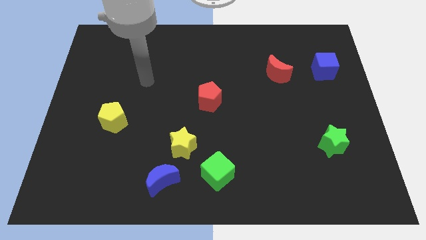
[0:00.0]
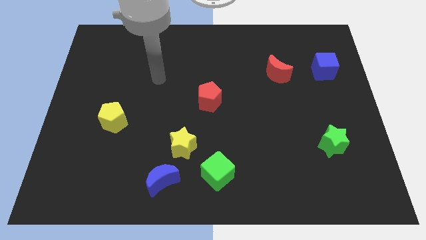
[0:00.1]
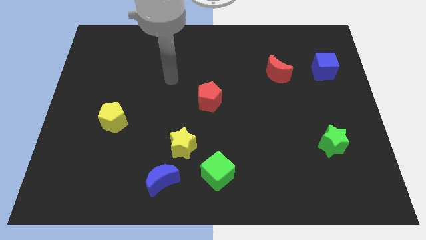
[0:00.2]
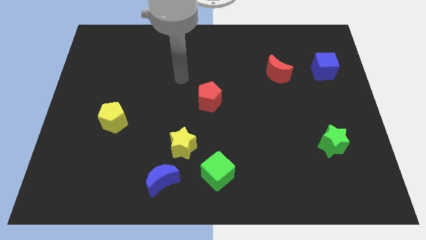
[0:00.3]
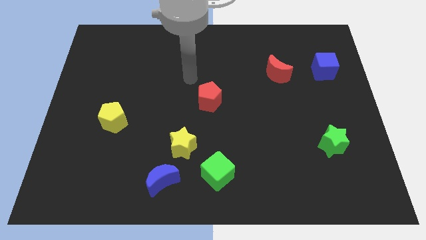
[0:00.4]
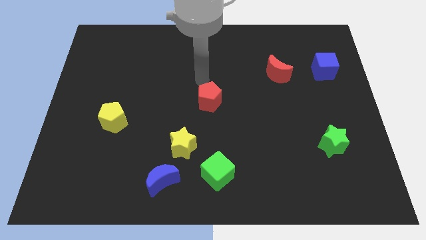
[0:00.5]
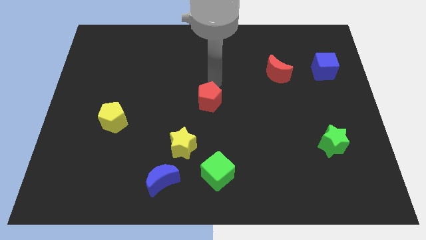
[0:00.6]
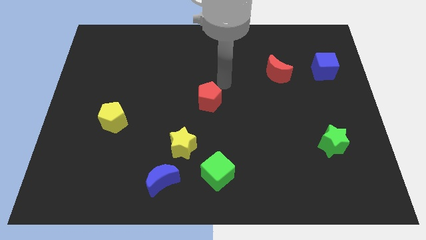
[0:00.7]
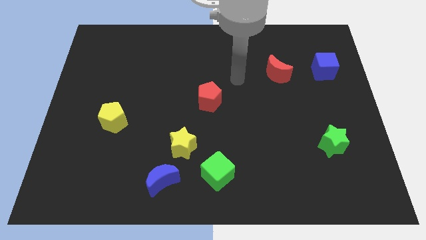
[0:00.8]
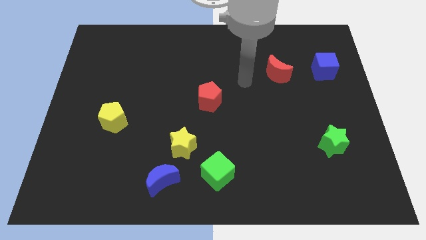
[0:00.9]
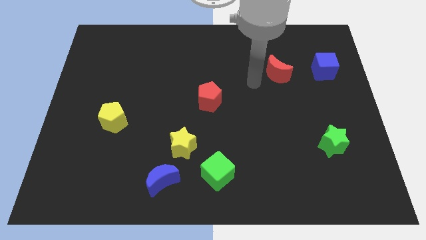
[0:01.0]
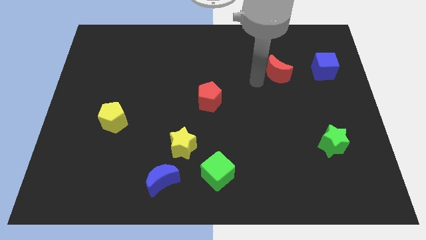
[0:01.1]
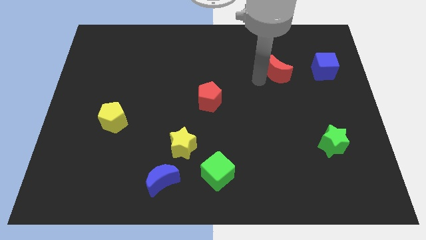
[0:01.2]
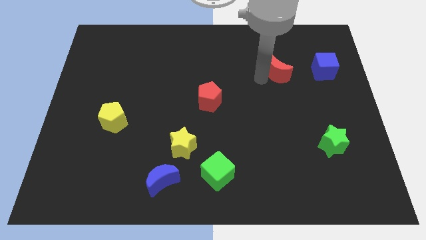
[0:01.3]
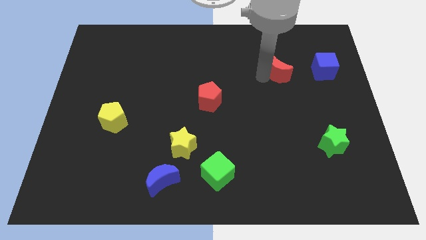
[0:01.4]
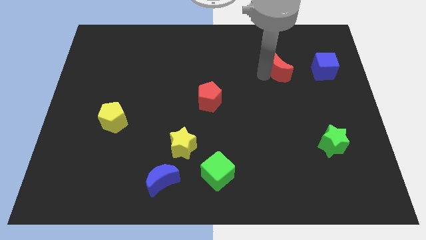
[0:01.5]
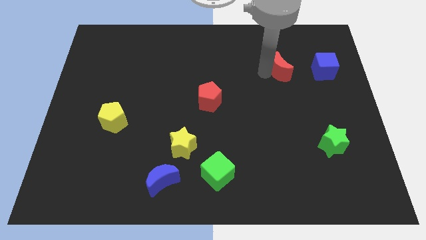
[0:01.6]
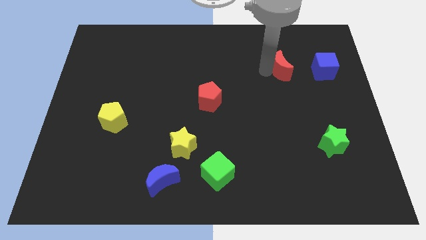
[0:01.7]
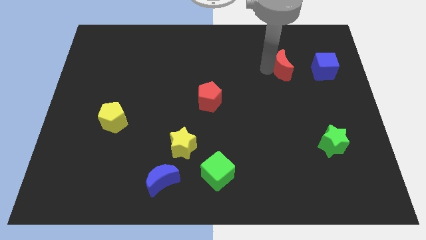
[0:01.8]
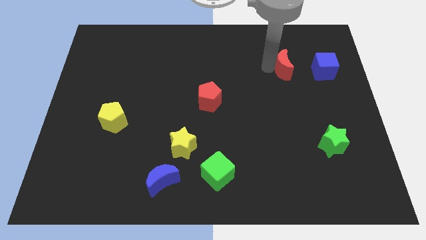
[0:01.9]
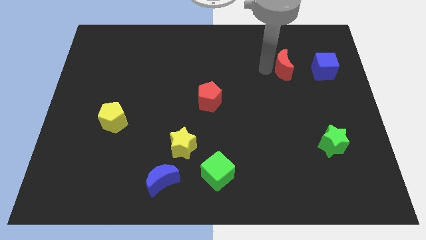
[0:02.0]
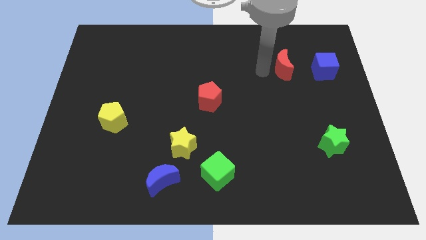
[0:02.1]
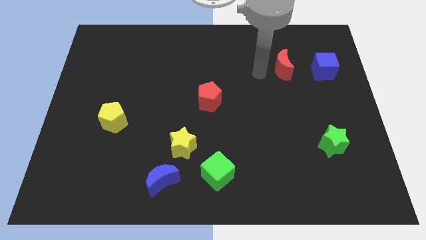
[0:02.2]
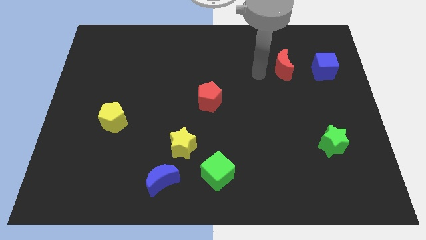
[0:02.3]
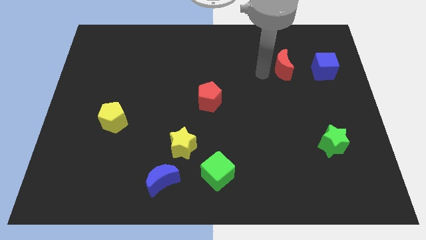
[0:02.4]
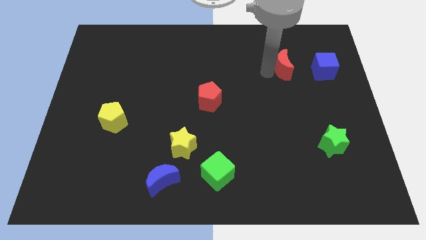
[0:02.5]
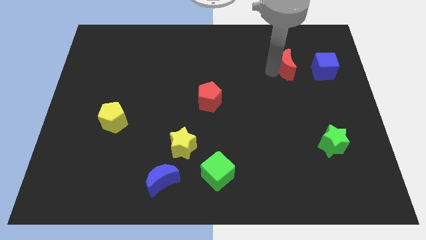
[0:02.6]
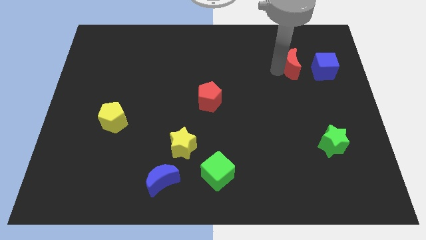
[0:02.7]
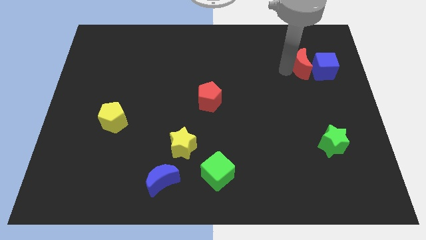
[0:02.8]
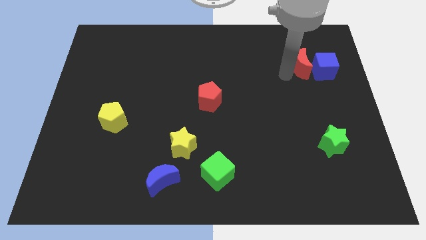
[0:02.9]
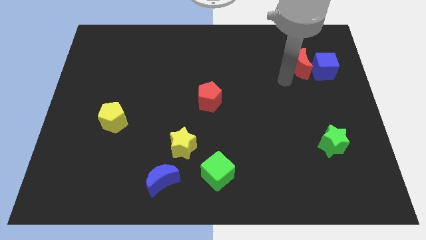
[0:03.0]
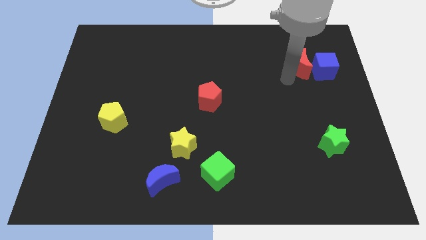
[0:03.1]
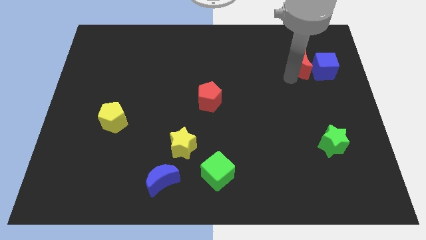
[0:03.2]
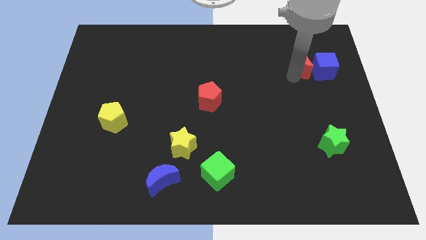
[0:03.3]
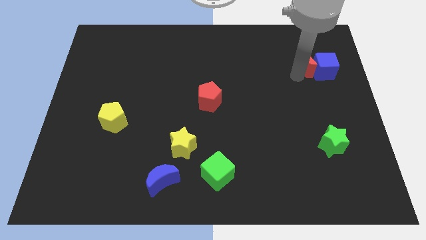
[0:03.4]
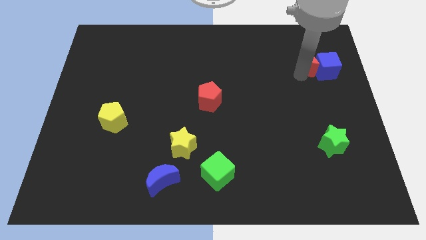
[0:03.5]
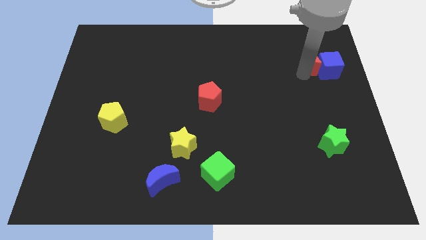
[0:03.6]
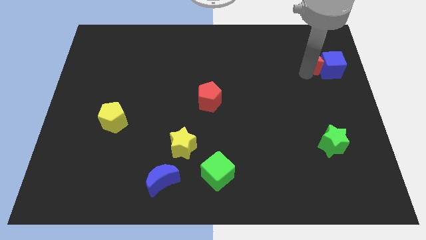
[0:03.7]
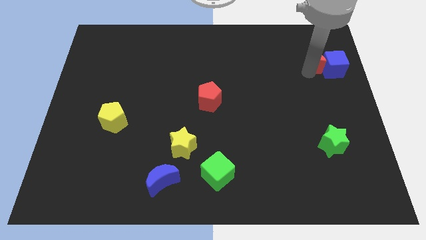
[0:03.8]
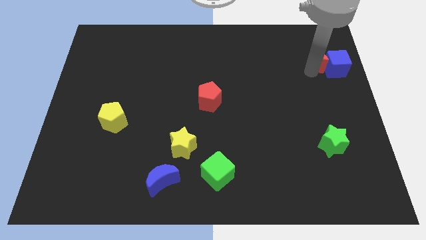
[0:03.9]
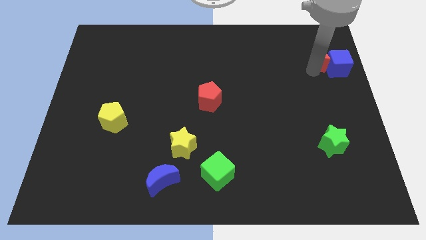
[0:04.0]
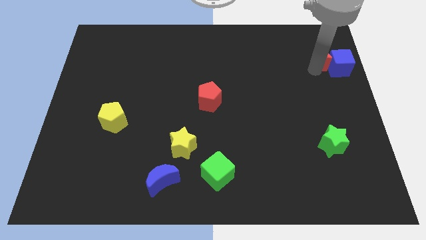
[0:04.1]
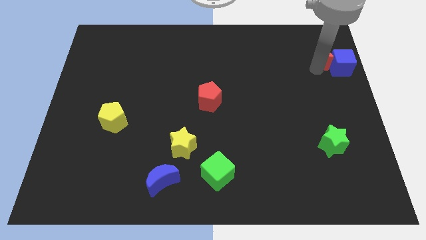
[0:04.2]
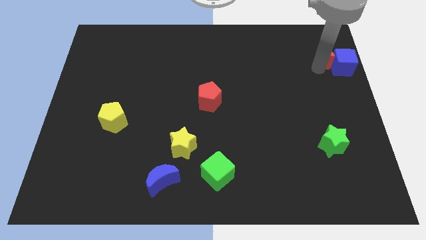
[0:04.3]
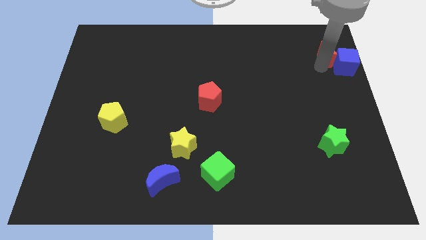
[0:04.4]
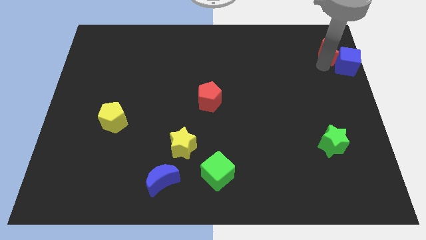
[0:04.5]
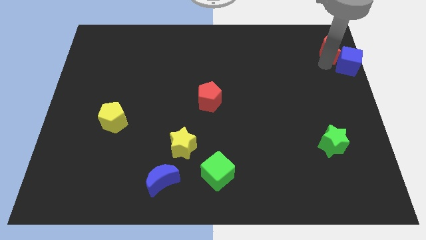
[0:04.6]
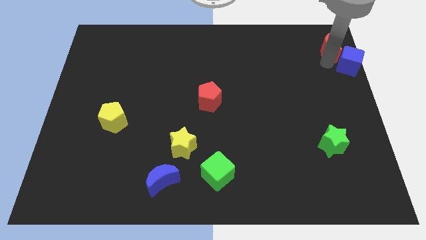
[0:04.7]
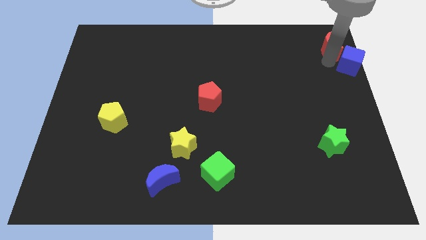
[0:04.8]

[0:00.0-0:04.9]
move the red moon to the top right corner

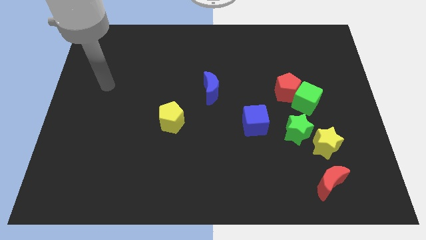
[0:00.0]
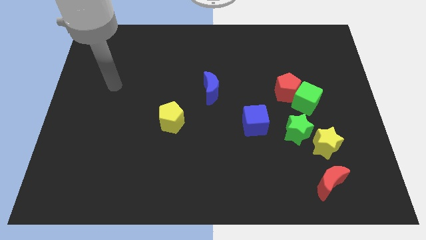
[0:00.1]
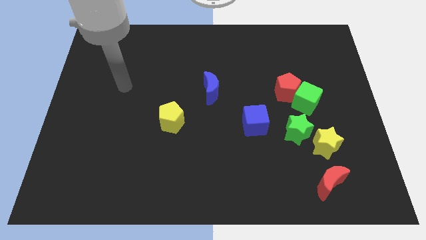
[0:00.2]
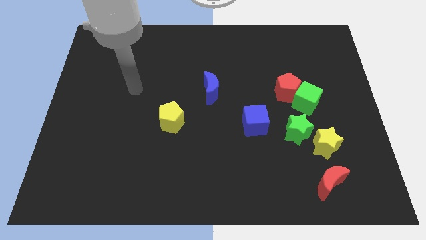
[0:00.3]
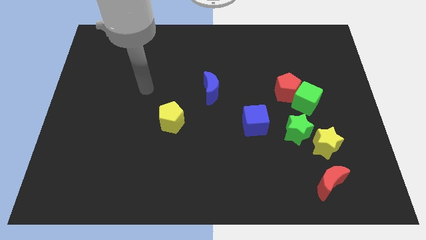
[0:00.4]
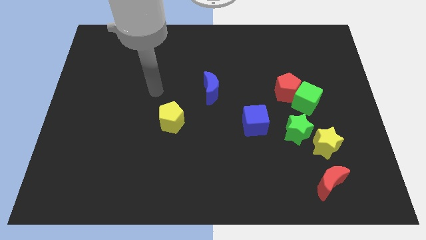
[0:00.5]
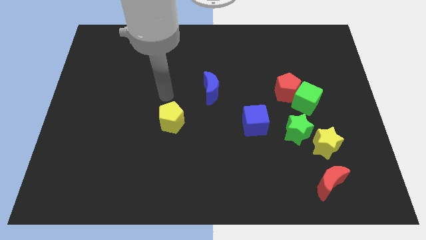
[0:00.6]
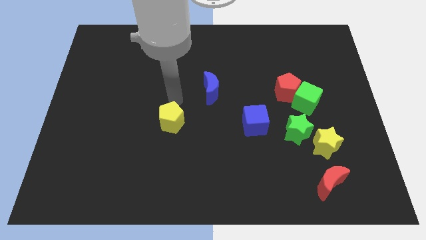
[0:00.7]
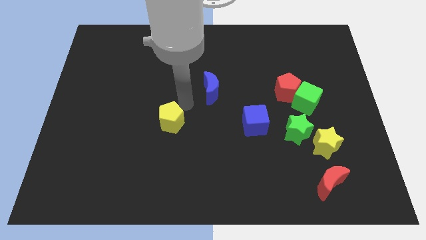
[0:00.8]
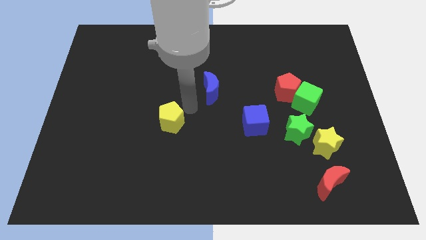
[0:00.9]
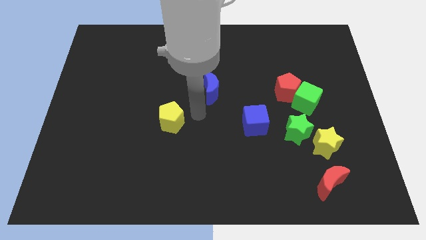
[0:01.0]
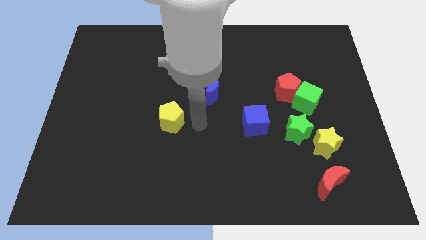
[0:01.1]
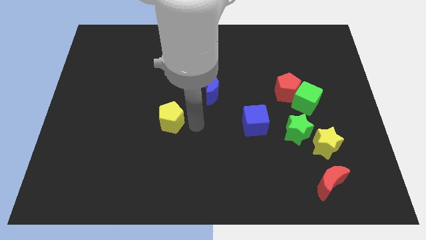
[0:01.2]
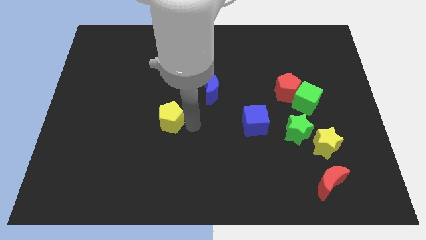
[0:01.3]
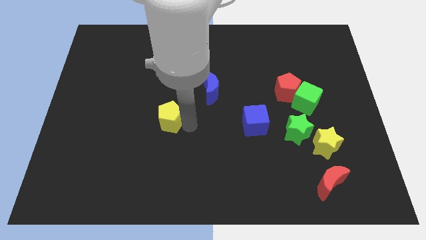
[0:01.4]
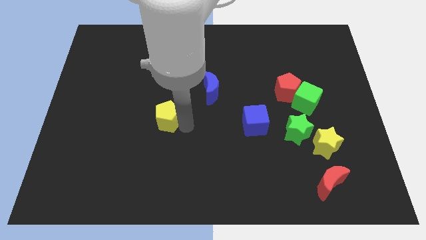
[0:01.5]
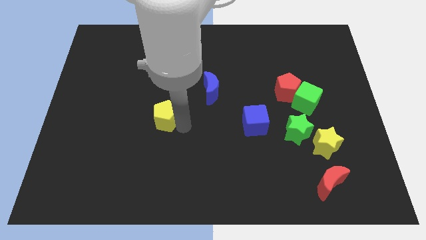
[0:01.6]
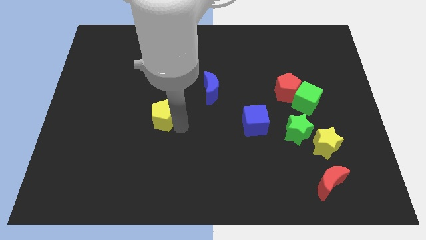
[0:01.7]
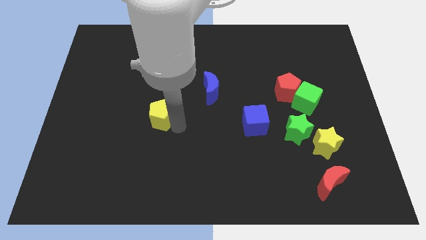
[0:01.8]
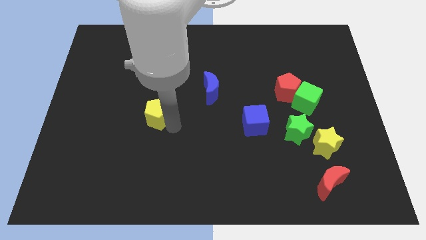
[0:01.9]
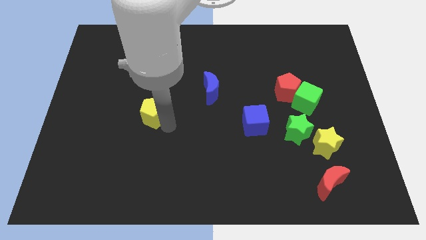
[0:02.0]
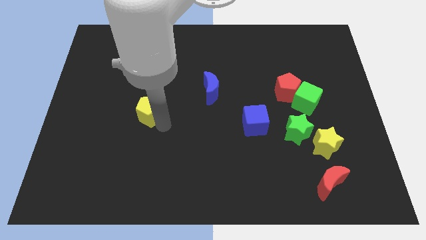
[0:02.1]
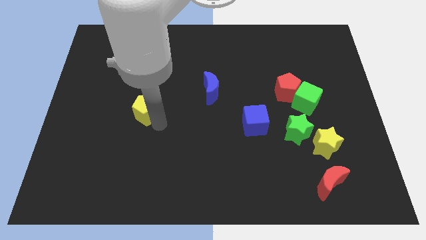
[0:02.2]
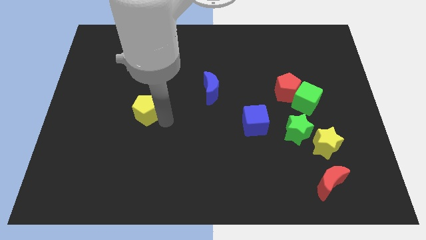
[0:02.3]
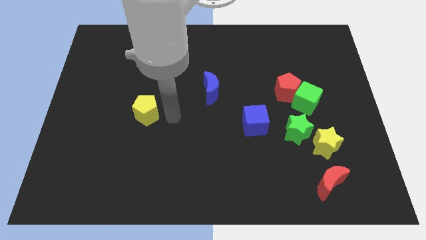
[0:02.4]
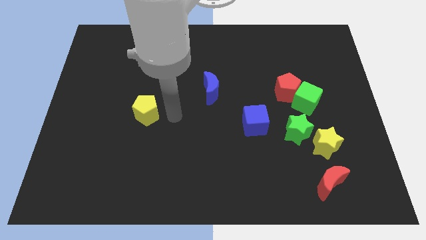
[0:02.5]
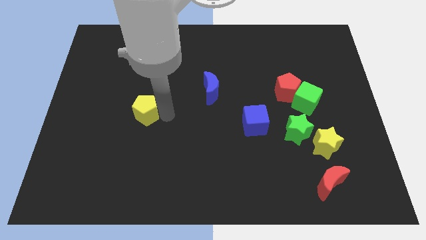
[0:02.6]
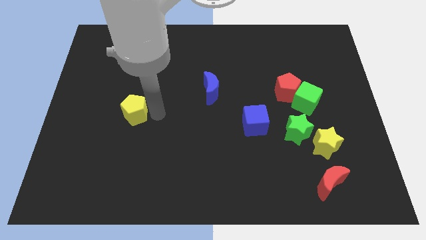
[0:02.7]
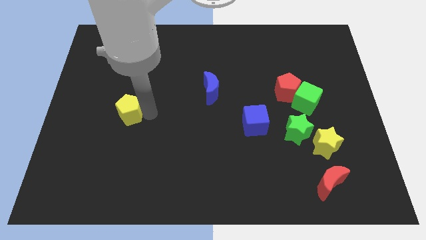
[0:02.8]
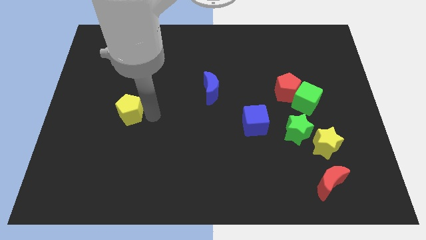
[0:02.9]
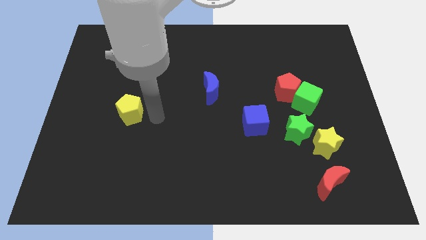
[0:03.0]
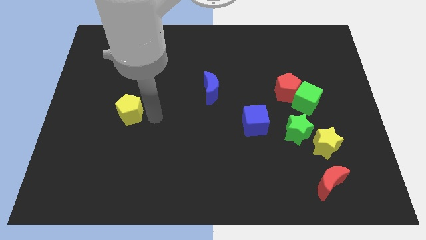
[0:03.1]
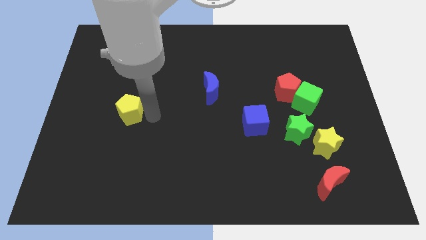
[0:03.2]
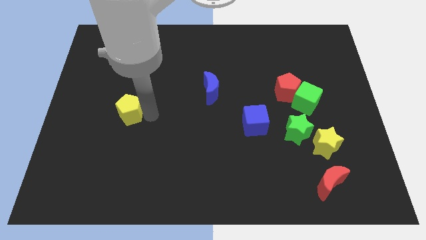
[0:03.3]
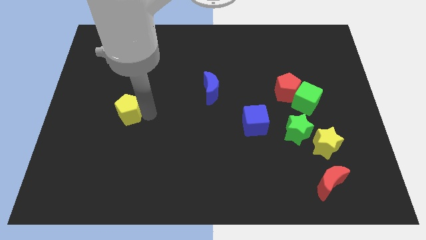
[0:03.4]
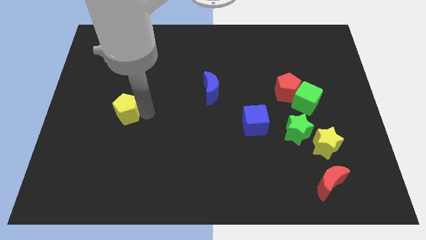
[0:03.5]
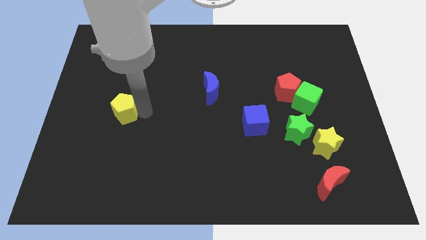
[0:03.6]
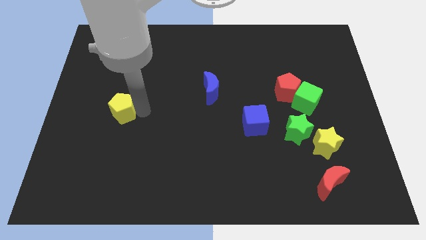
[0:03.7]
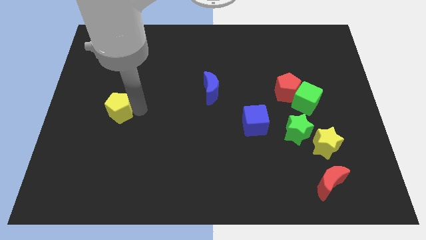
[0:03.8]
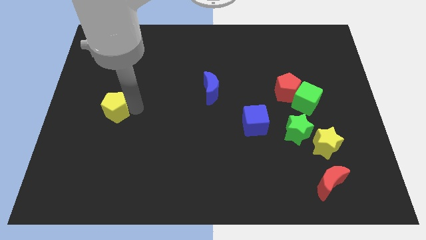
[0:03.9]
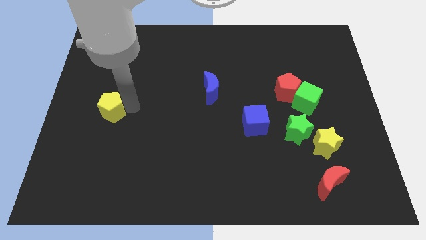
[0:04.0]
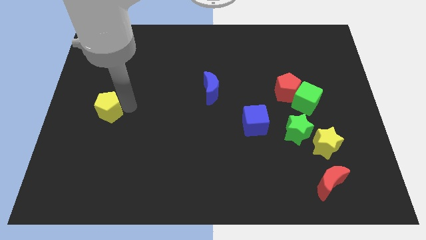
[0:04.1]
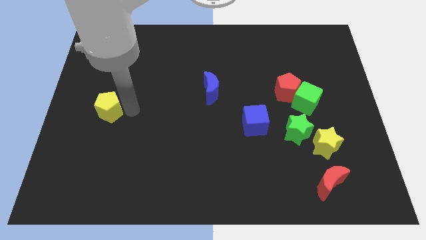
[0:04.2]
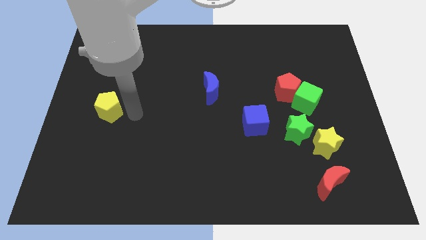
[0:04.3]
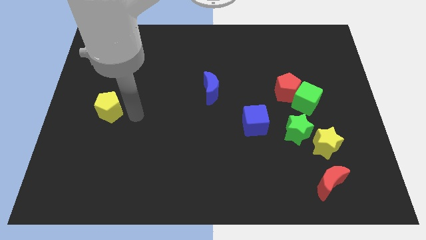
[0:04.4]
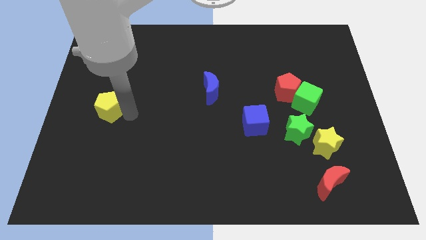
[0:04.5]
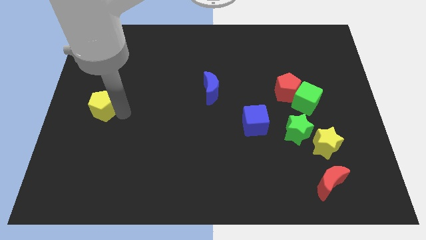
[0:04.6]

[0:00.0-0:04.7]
push the yellow pentagon to the center left
